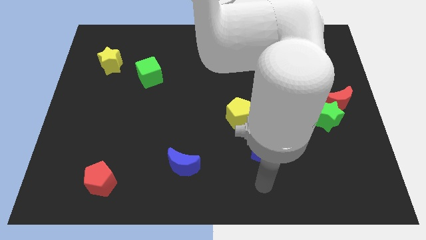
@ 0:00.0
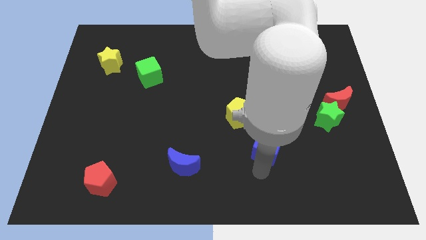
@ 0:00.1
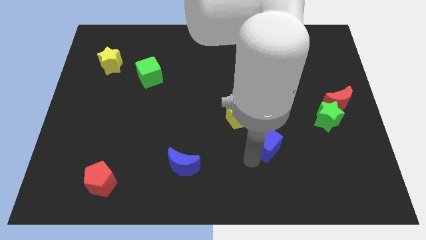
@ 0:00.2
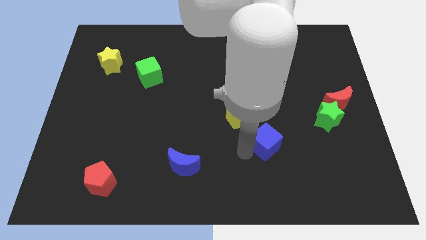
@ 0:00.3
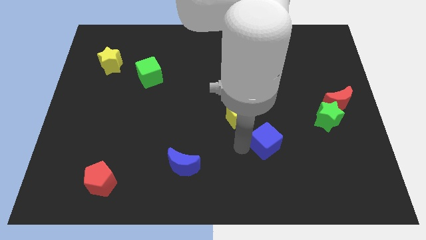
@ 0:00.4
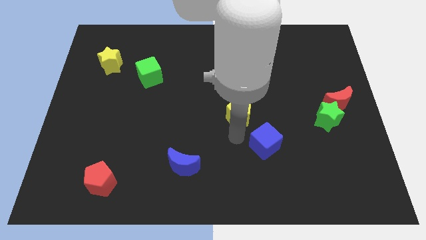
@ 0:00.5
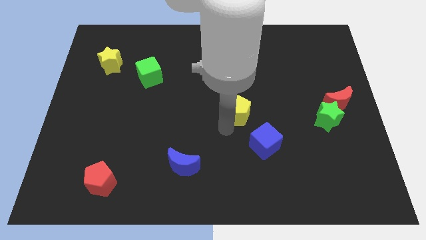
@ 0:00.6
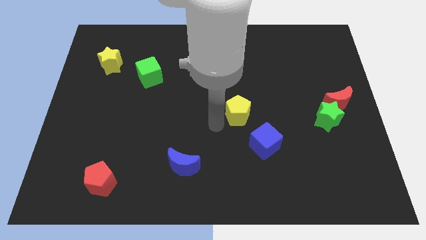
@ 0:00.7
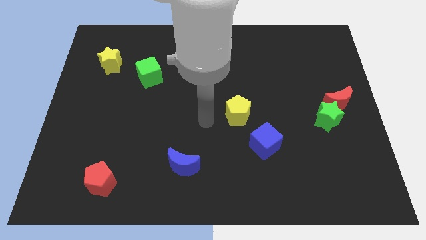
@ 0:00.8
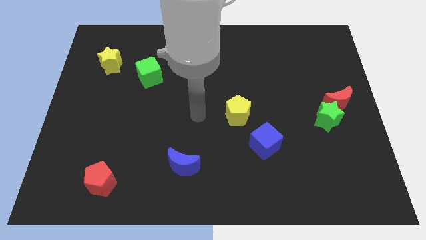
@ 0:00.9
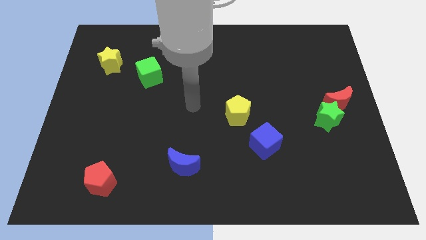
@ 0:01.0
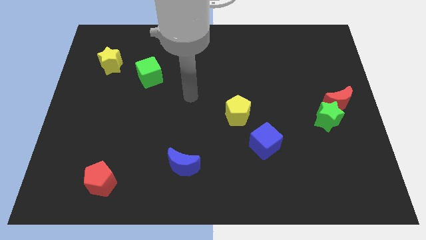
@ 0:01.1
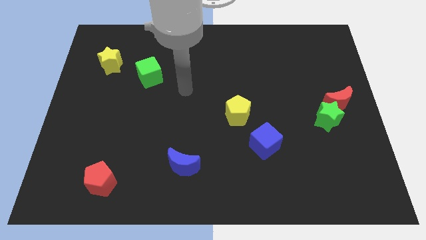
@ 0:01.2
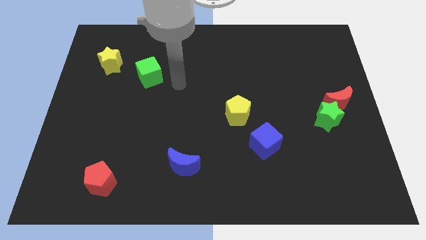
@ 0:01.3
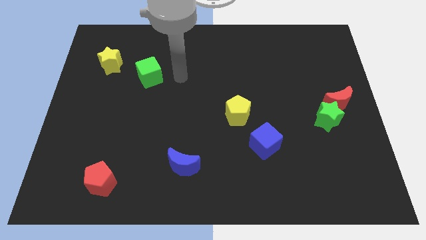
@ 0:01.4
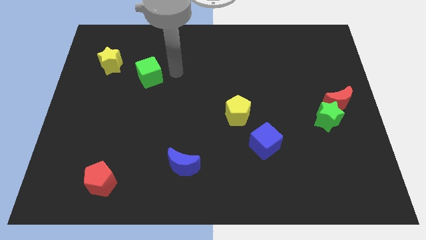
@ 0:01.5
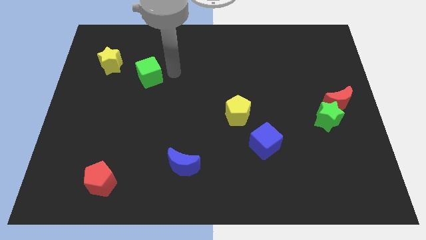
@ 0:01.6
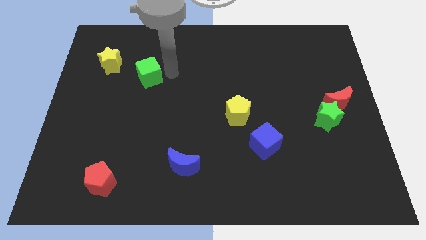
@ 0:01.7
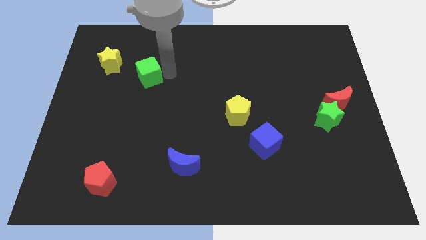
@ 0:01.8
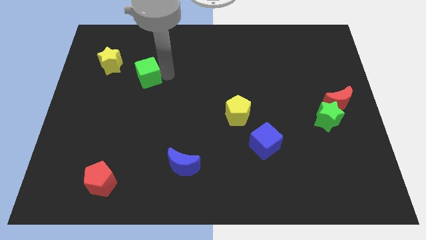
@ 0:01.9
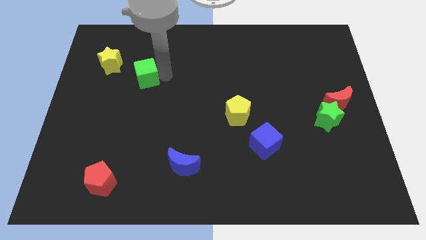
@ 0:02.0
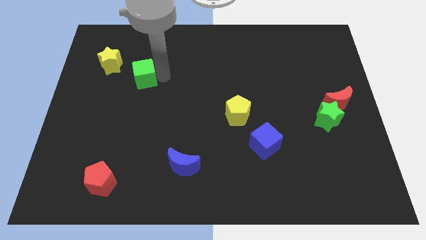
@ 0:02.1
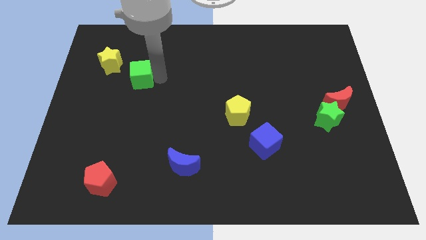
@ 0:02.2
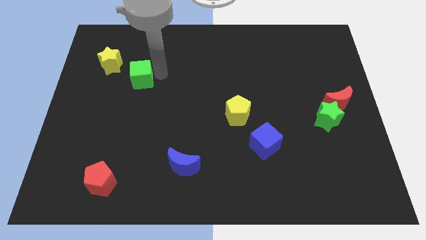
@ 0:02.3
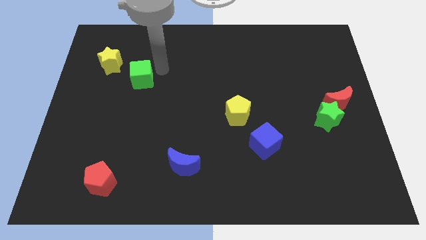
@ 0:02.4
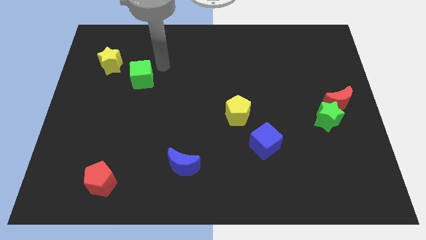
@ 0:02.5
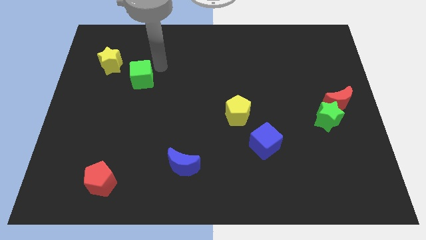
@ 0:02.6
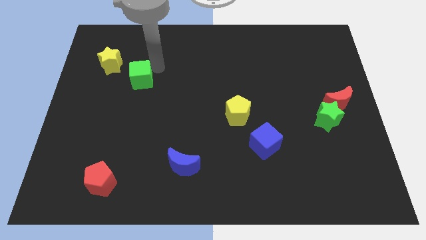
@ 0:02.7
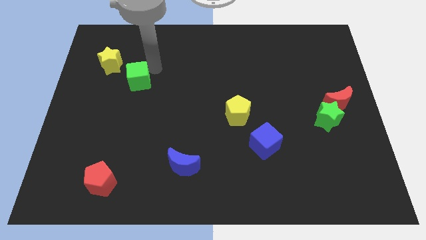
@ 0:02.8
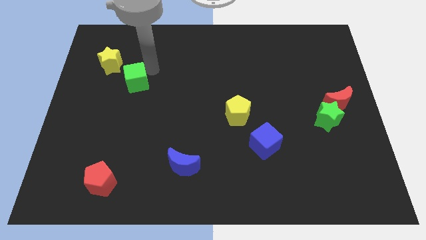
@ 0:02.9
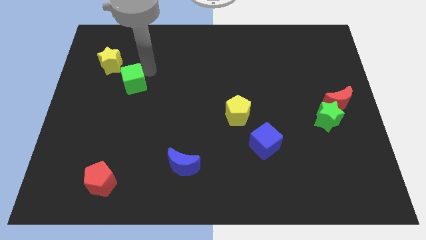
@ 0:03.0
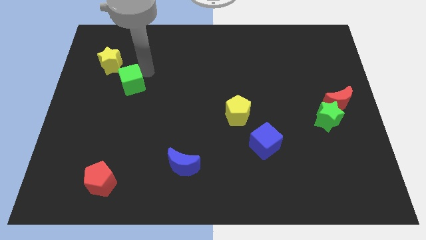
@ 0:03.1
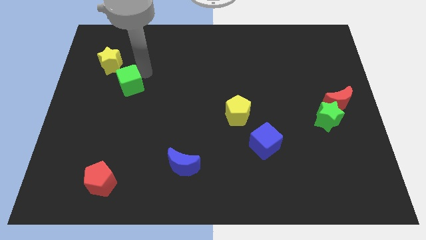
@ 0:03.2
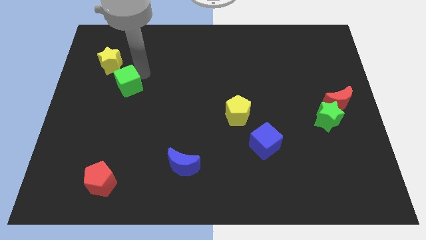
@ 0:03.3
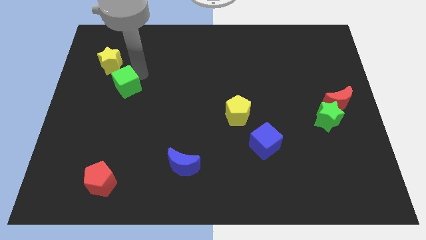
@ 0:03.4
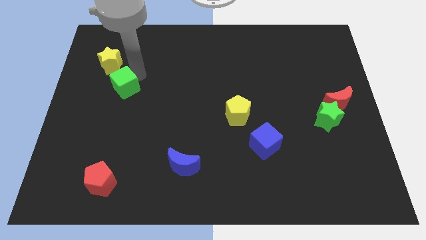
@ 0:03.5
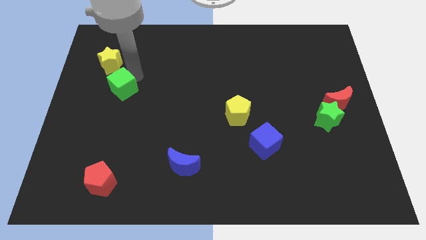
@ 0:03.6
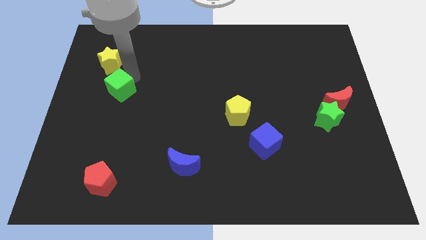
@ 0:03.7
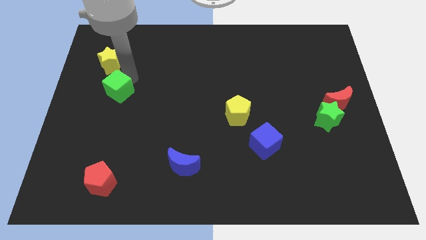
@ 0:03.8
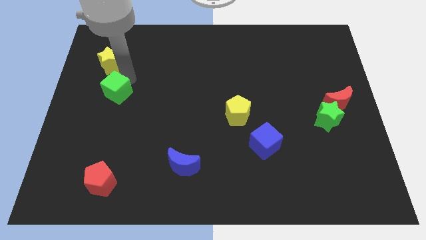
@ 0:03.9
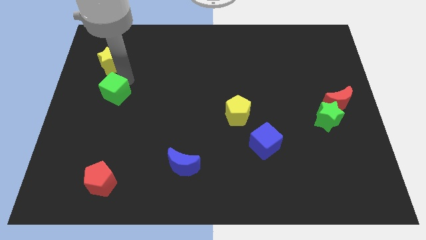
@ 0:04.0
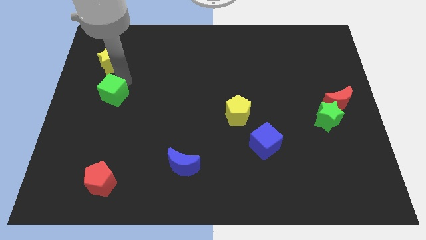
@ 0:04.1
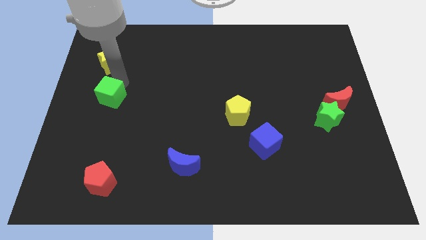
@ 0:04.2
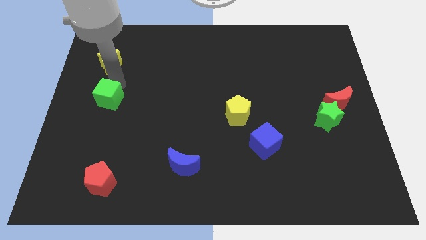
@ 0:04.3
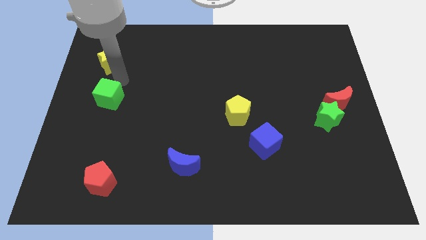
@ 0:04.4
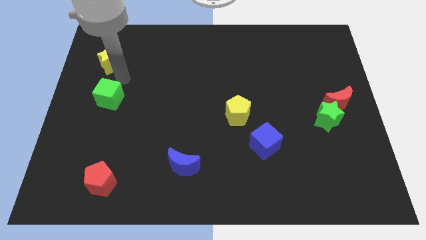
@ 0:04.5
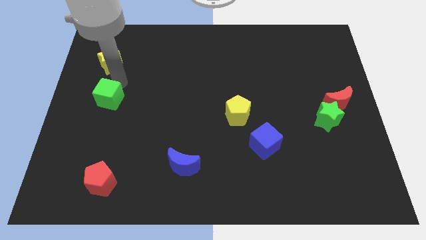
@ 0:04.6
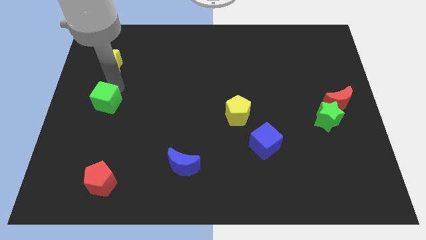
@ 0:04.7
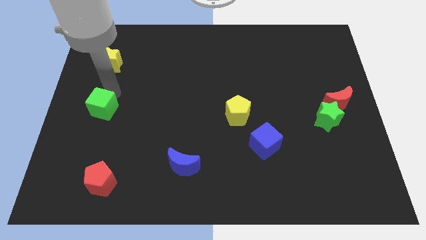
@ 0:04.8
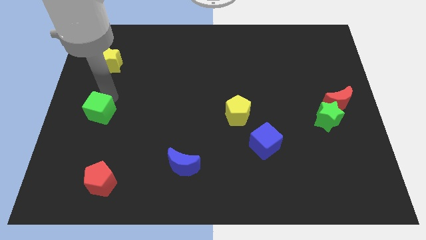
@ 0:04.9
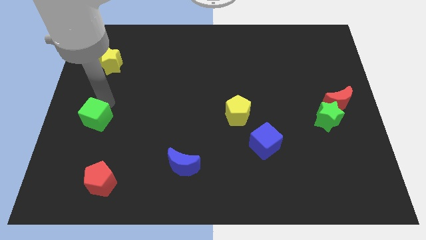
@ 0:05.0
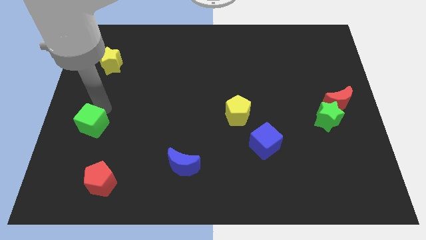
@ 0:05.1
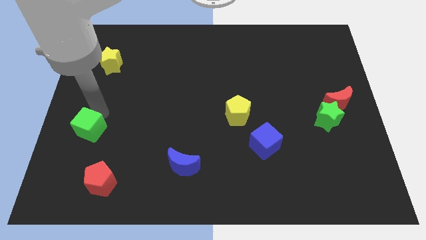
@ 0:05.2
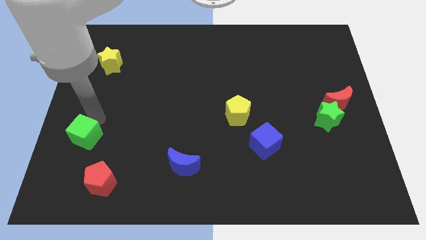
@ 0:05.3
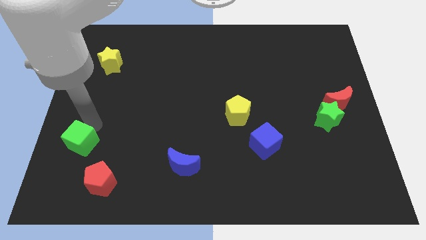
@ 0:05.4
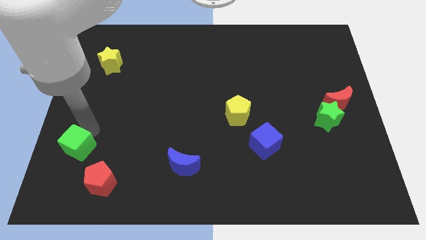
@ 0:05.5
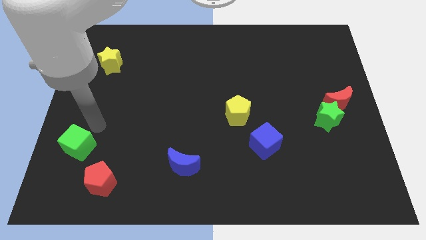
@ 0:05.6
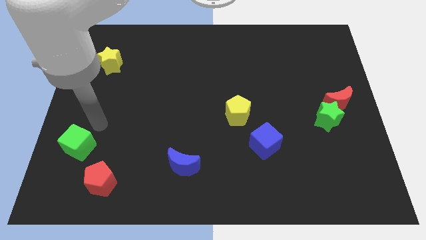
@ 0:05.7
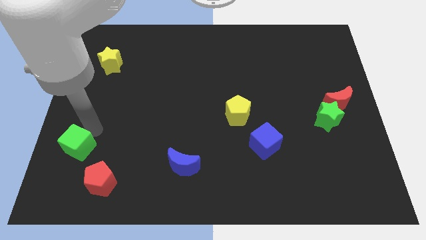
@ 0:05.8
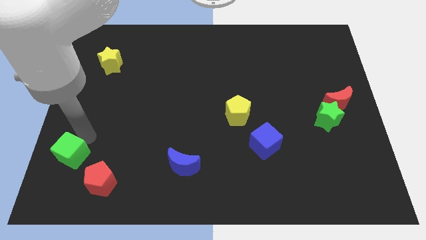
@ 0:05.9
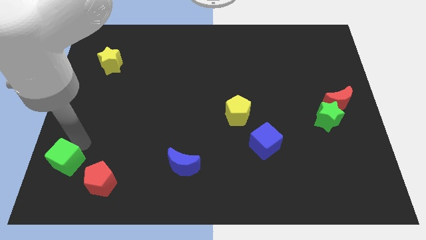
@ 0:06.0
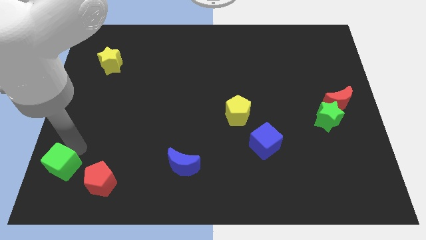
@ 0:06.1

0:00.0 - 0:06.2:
slide the green cube to the lower left corner
